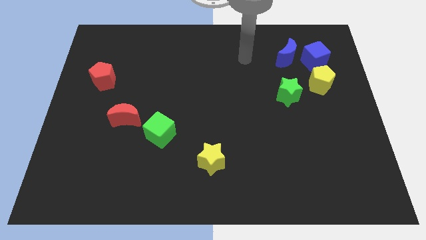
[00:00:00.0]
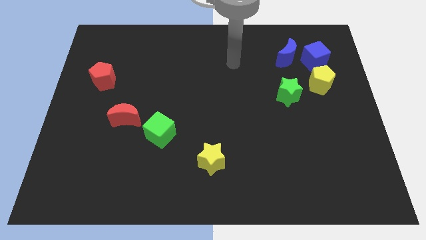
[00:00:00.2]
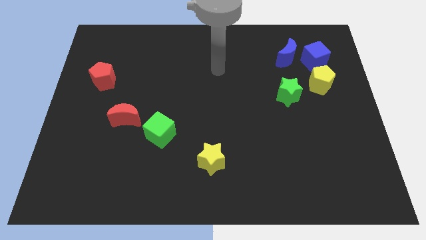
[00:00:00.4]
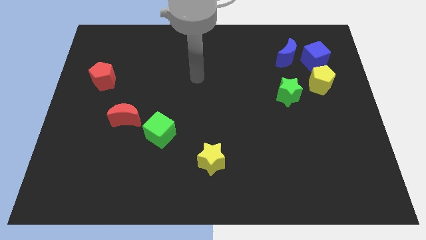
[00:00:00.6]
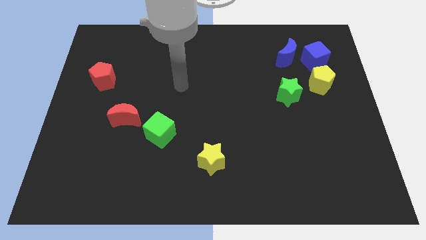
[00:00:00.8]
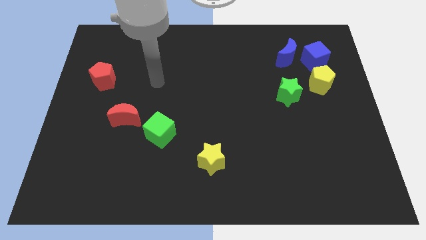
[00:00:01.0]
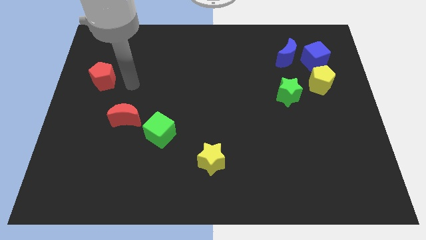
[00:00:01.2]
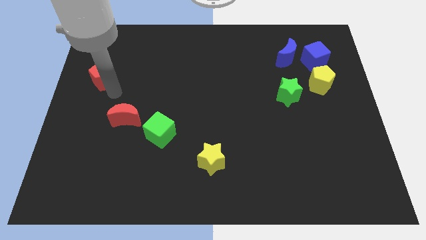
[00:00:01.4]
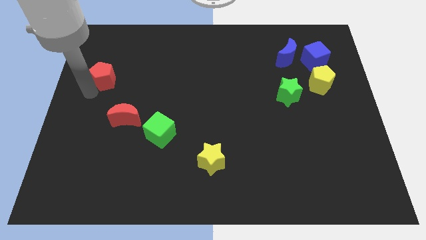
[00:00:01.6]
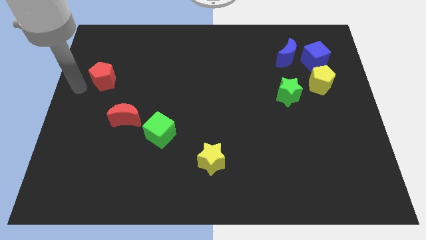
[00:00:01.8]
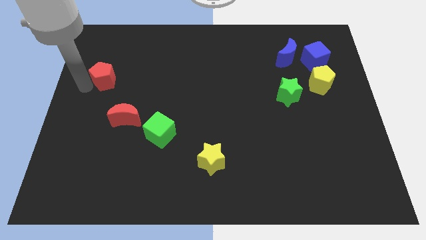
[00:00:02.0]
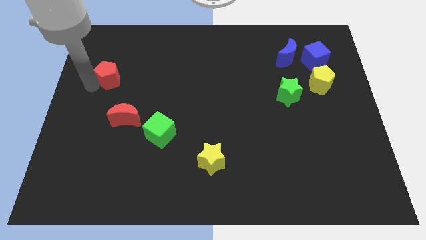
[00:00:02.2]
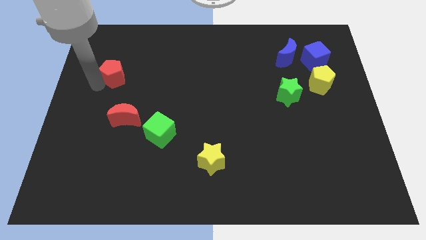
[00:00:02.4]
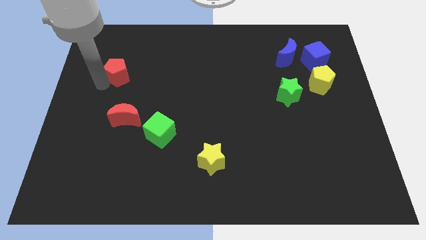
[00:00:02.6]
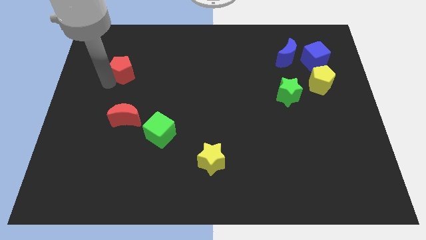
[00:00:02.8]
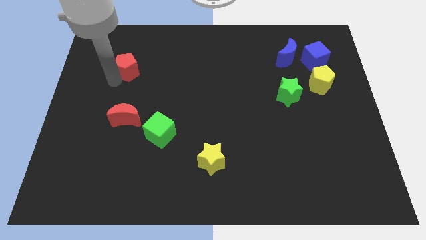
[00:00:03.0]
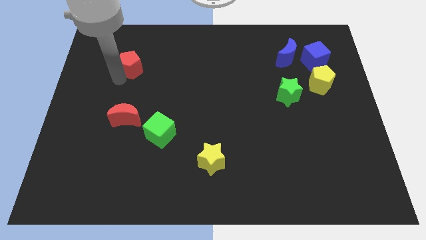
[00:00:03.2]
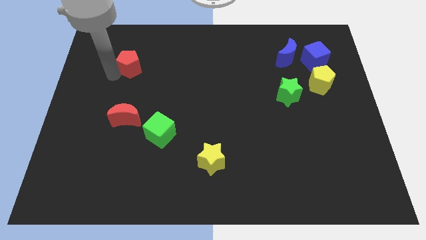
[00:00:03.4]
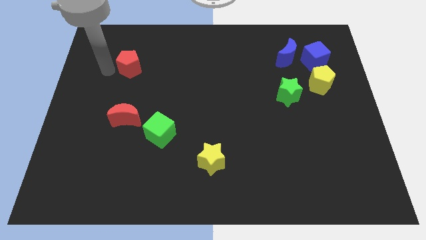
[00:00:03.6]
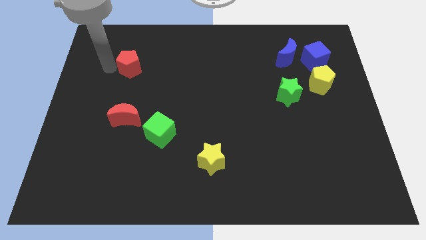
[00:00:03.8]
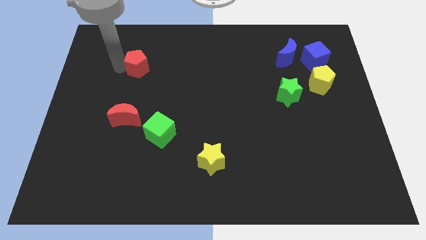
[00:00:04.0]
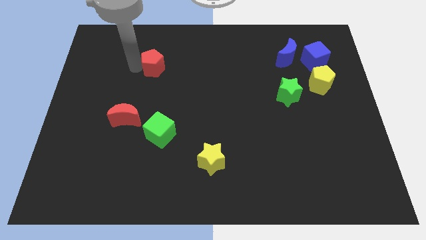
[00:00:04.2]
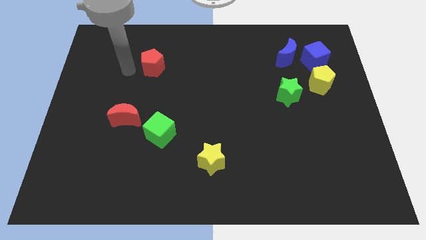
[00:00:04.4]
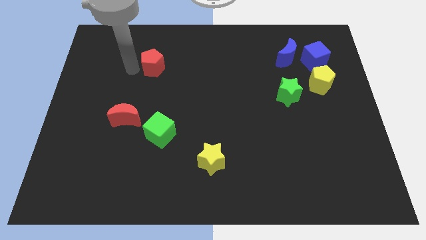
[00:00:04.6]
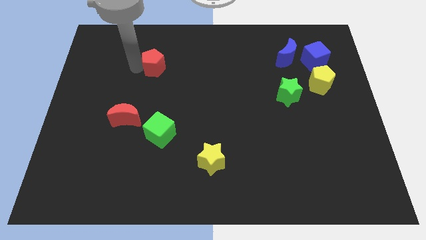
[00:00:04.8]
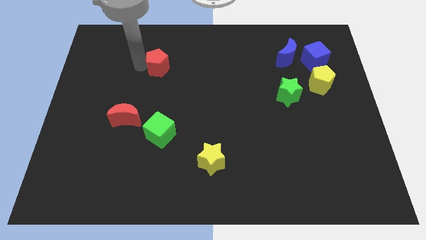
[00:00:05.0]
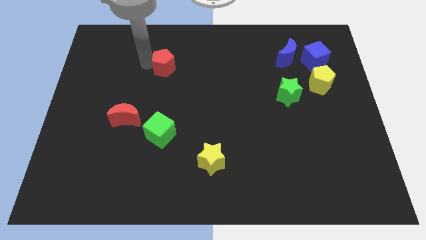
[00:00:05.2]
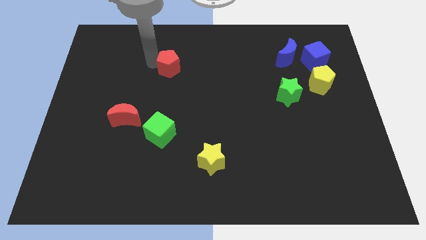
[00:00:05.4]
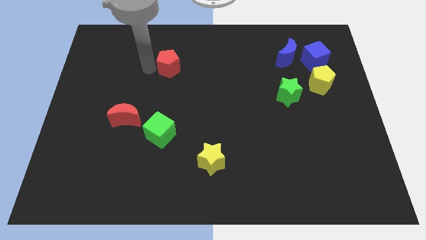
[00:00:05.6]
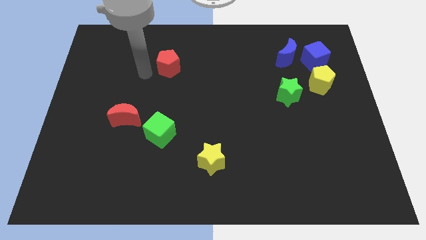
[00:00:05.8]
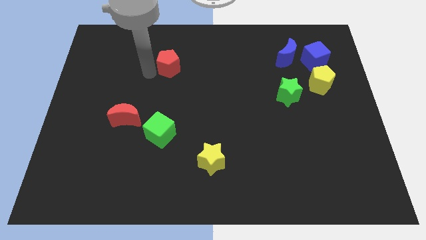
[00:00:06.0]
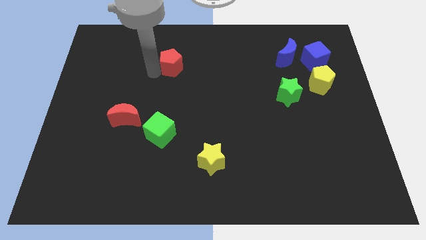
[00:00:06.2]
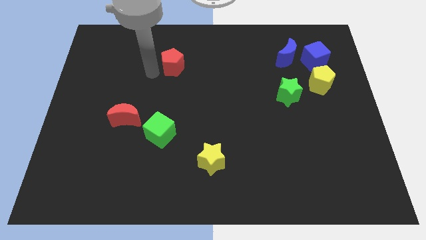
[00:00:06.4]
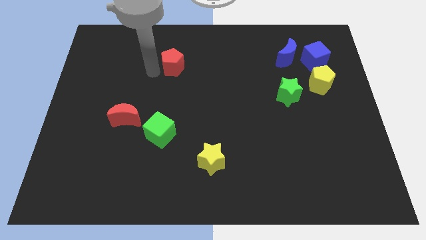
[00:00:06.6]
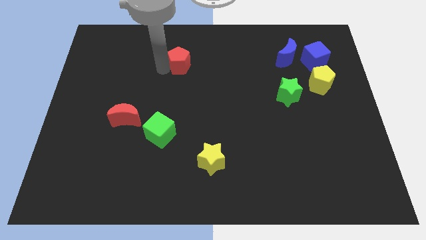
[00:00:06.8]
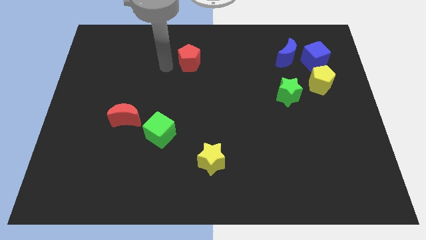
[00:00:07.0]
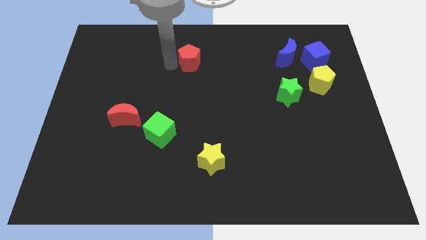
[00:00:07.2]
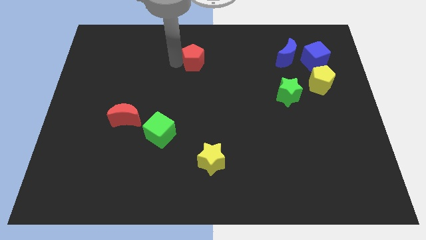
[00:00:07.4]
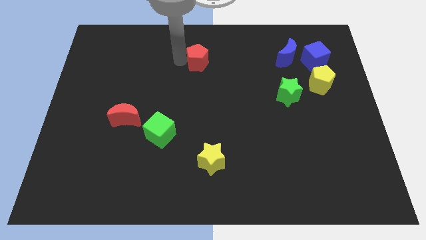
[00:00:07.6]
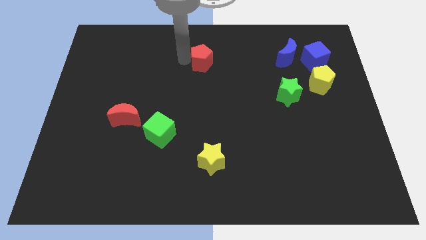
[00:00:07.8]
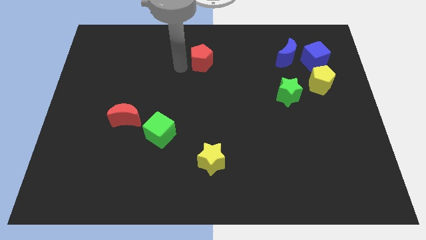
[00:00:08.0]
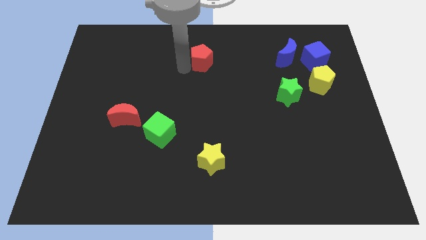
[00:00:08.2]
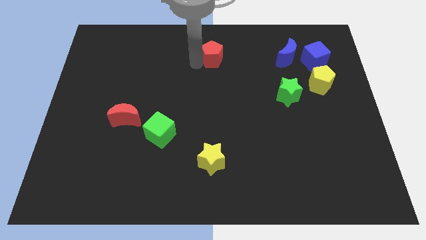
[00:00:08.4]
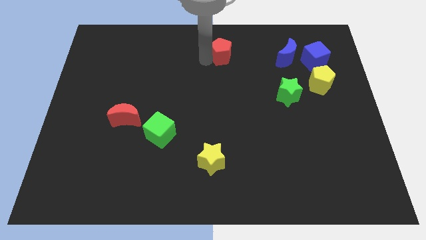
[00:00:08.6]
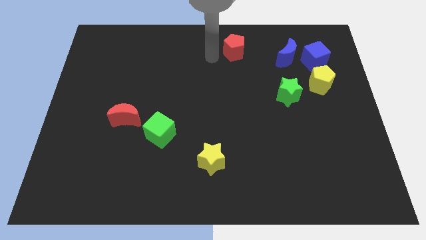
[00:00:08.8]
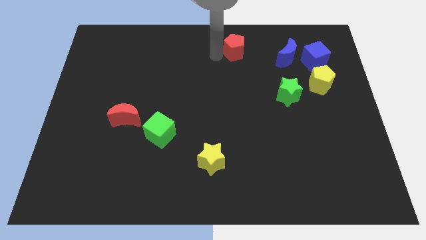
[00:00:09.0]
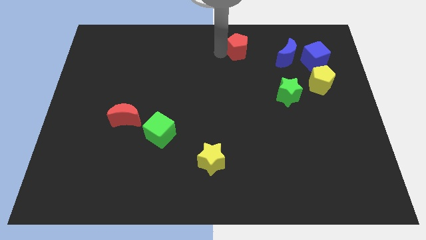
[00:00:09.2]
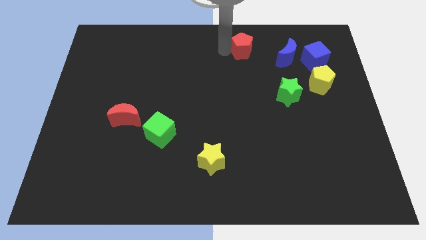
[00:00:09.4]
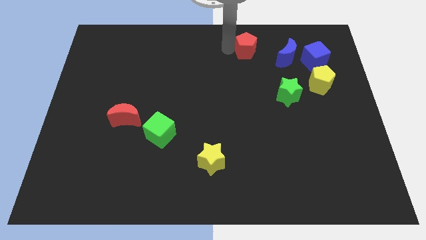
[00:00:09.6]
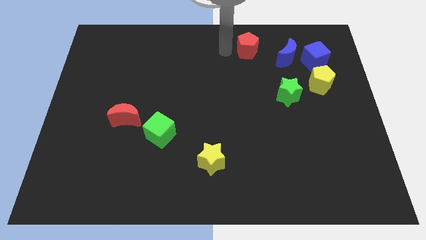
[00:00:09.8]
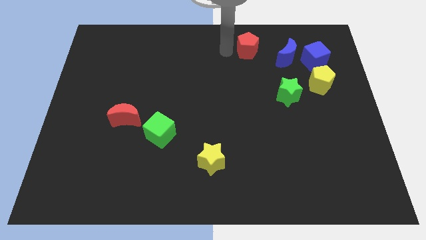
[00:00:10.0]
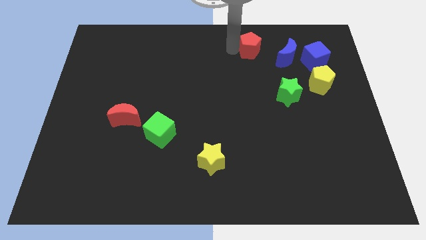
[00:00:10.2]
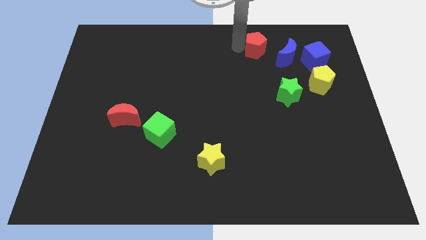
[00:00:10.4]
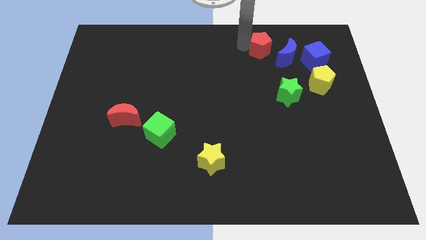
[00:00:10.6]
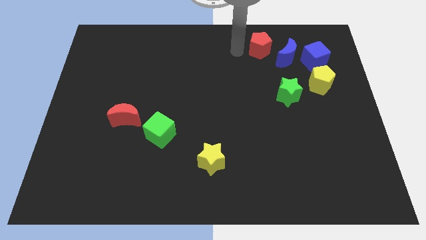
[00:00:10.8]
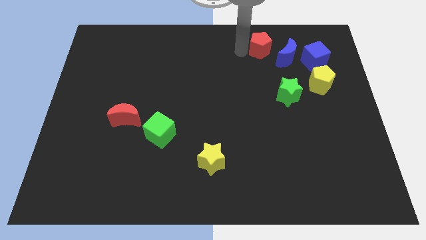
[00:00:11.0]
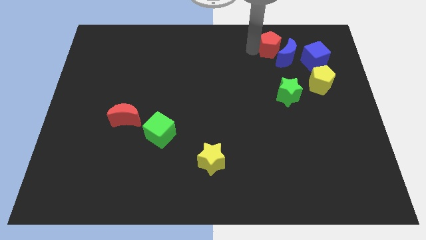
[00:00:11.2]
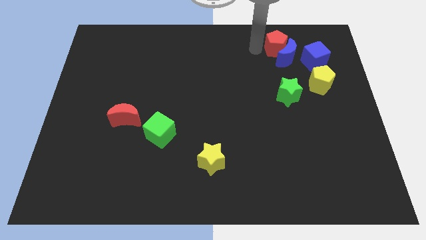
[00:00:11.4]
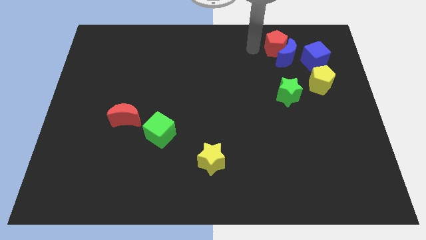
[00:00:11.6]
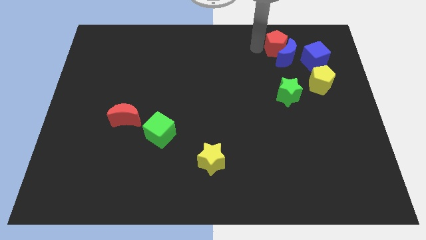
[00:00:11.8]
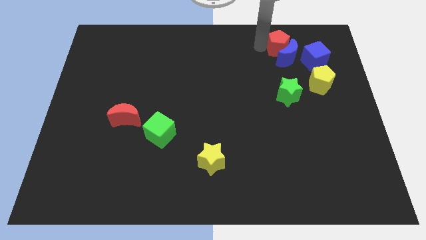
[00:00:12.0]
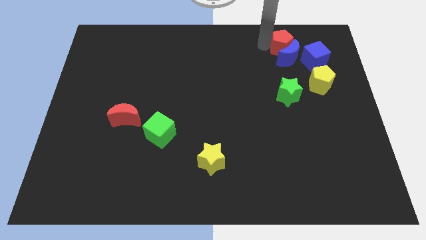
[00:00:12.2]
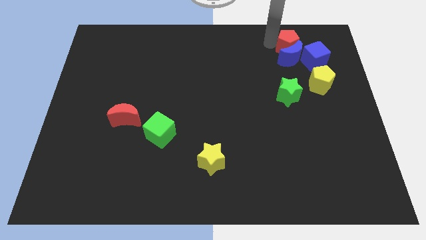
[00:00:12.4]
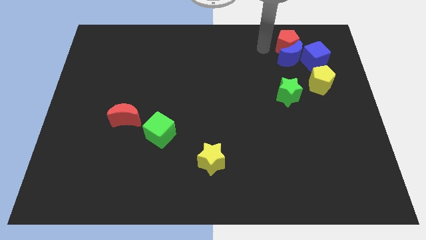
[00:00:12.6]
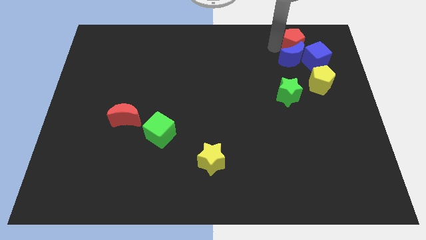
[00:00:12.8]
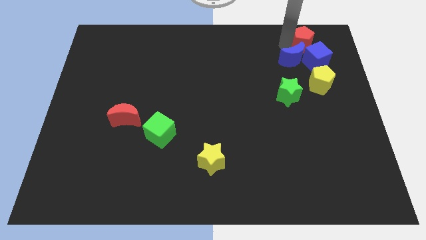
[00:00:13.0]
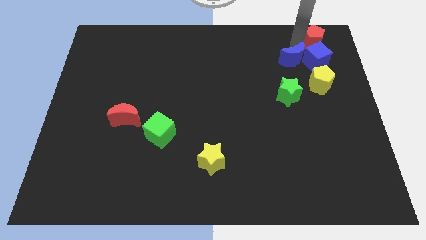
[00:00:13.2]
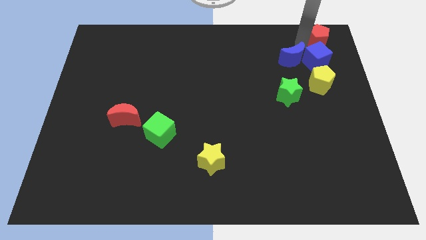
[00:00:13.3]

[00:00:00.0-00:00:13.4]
push the red pentagon to the upper right corner

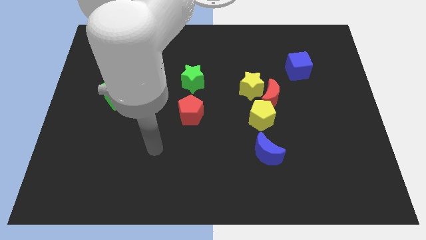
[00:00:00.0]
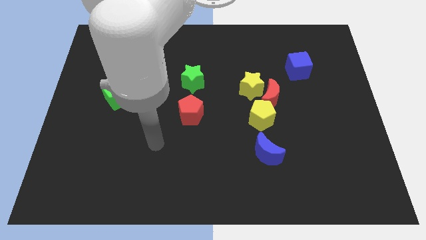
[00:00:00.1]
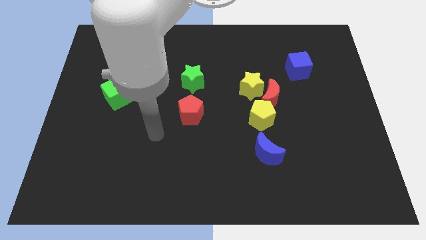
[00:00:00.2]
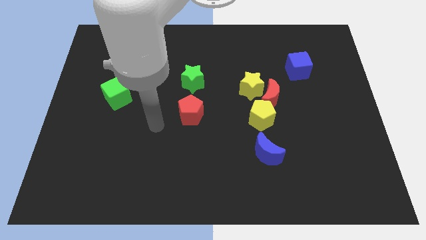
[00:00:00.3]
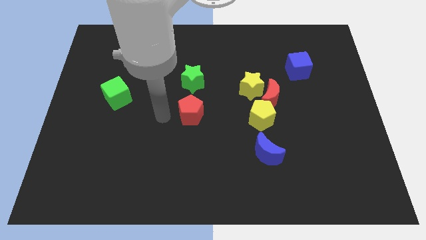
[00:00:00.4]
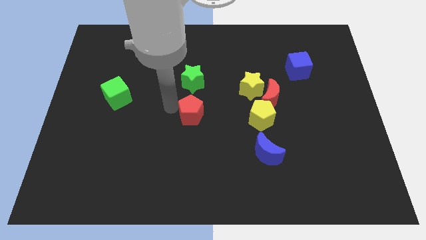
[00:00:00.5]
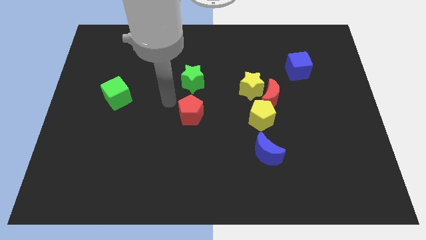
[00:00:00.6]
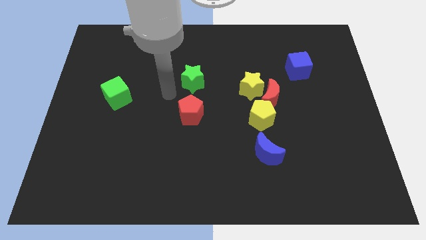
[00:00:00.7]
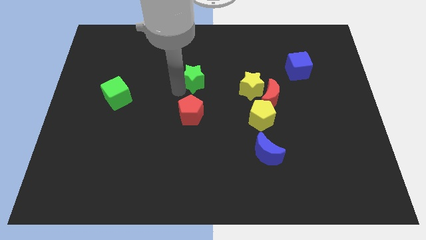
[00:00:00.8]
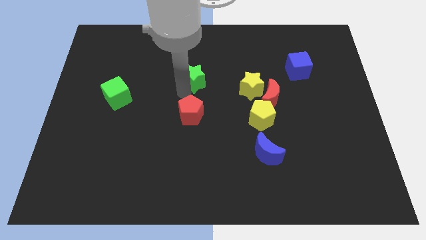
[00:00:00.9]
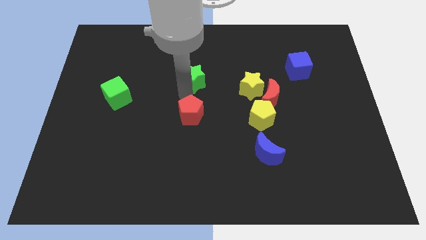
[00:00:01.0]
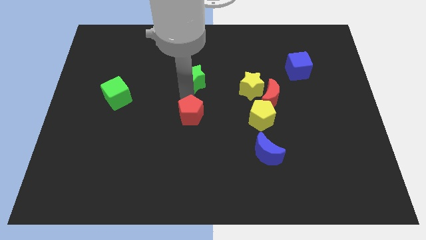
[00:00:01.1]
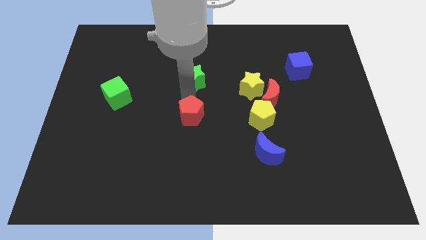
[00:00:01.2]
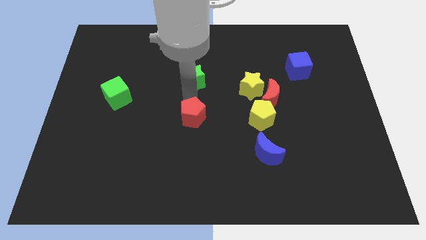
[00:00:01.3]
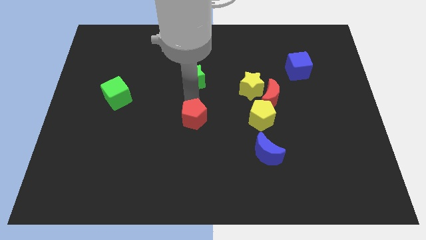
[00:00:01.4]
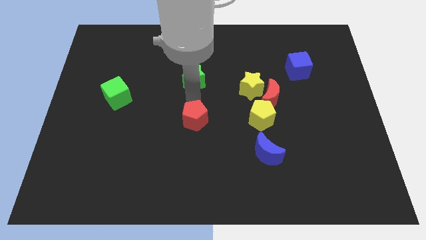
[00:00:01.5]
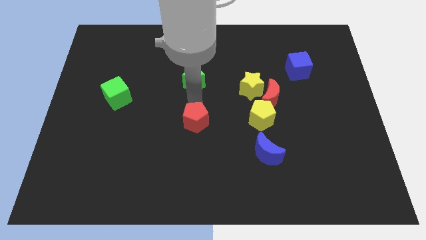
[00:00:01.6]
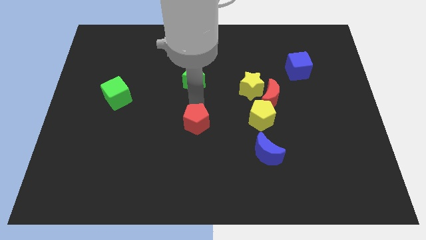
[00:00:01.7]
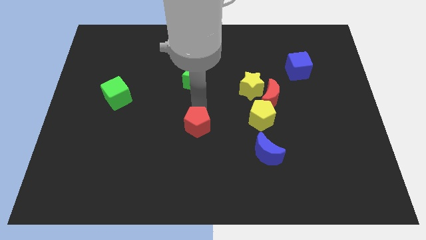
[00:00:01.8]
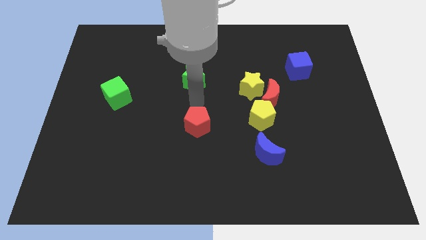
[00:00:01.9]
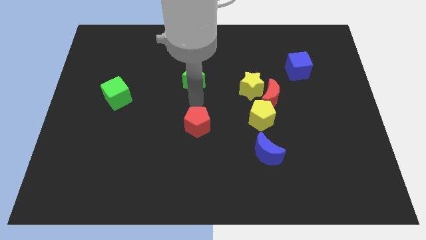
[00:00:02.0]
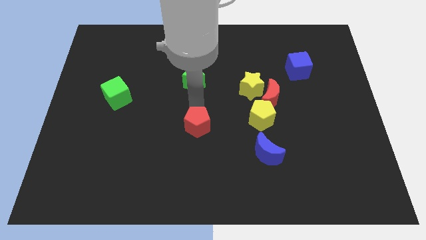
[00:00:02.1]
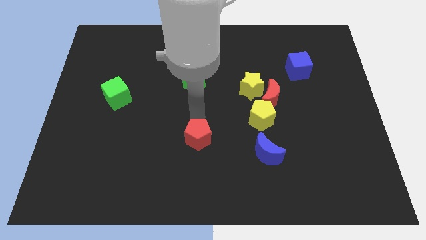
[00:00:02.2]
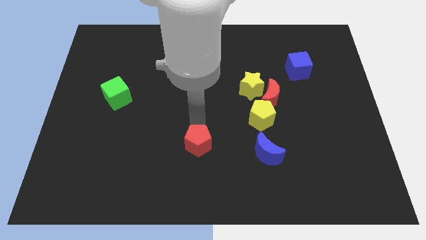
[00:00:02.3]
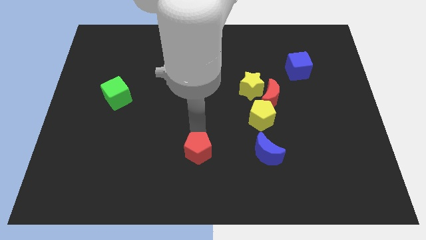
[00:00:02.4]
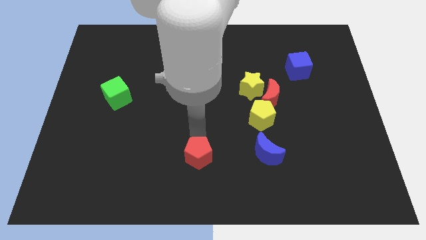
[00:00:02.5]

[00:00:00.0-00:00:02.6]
slide the red pentagon to the bottom
